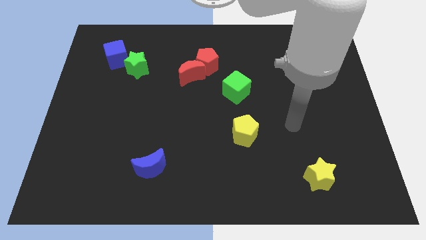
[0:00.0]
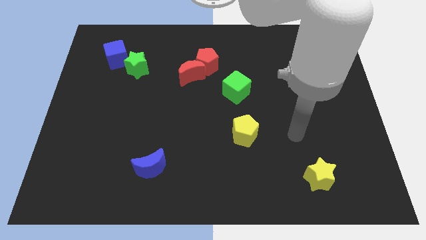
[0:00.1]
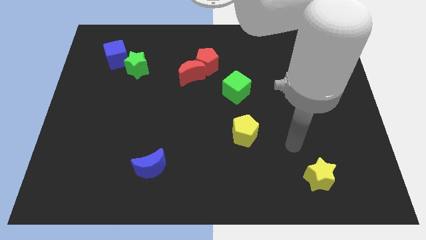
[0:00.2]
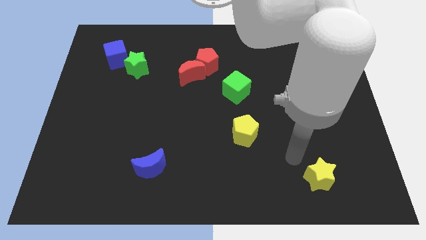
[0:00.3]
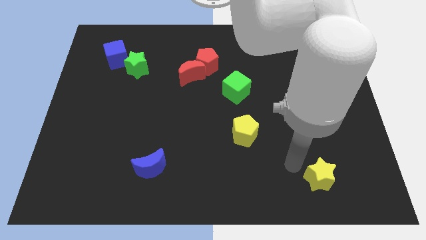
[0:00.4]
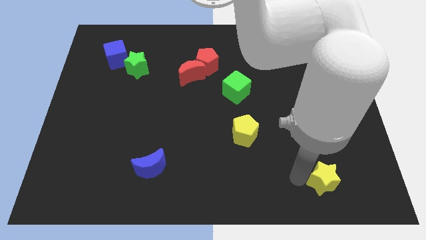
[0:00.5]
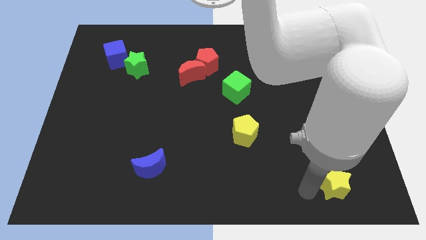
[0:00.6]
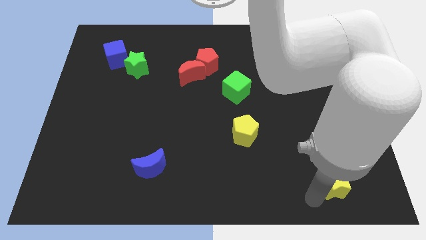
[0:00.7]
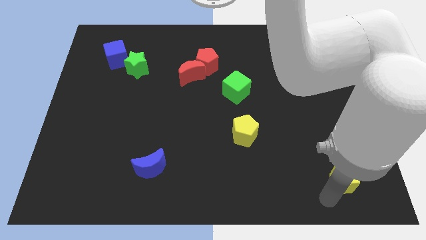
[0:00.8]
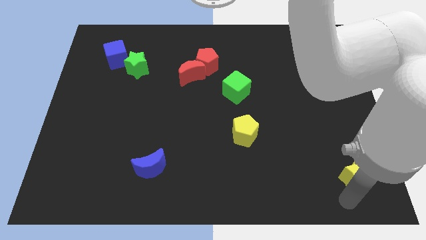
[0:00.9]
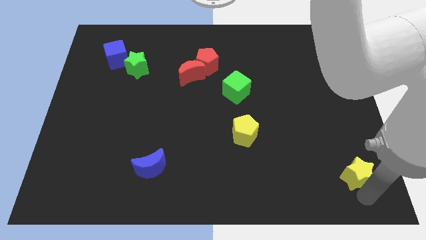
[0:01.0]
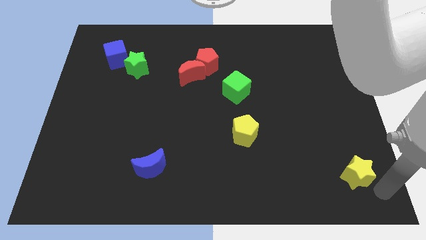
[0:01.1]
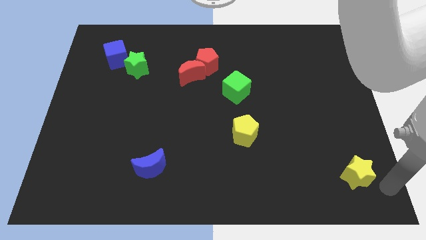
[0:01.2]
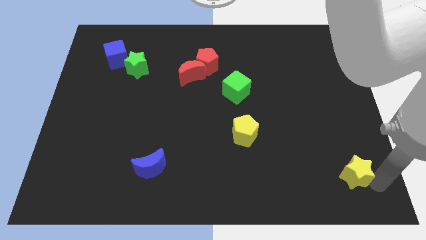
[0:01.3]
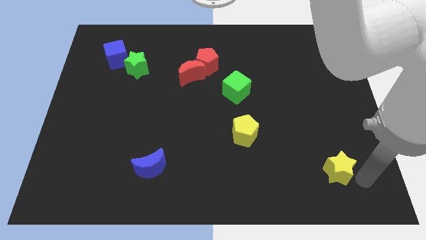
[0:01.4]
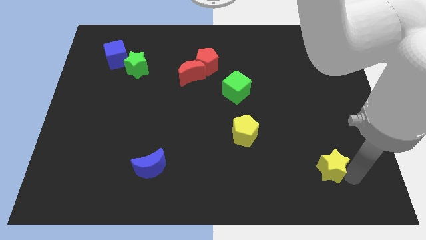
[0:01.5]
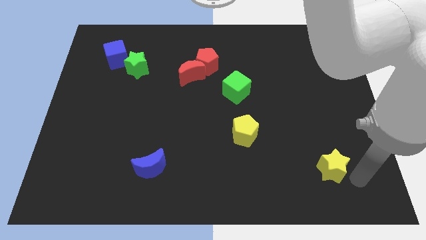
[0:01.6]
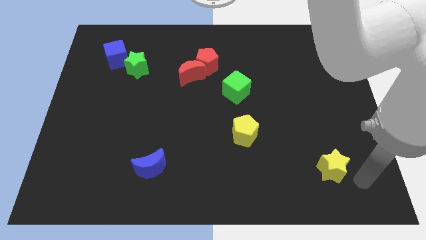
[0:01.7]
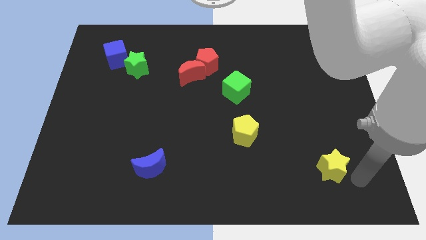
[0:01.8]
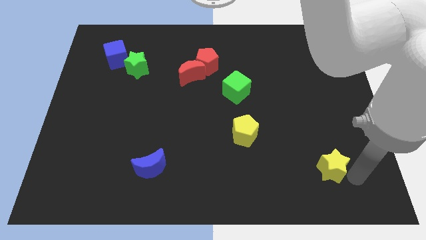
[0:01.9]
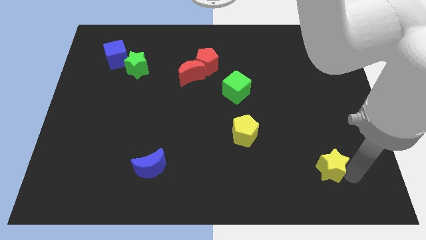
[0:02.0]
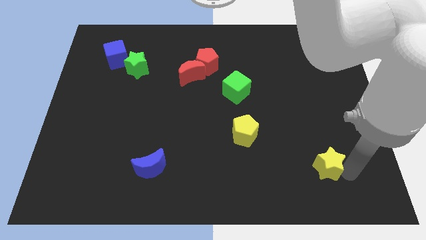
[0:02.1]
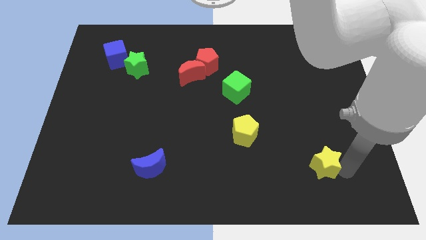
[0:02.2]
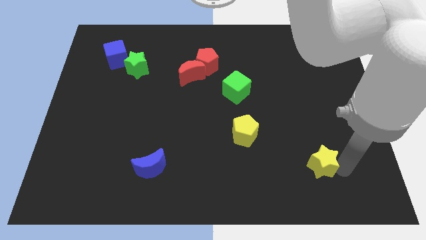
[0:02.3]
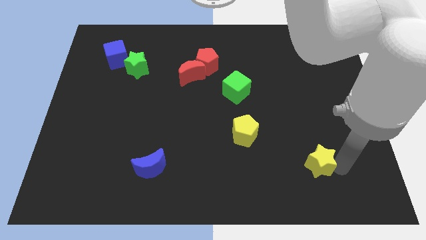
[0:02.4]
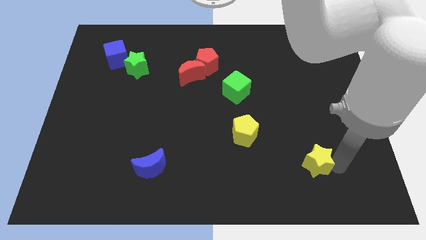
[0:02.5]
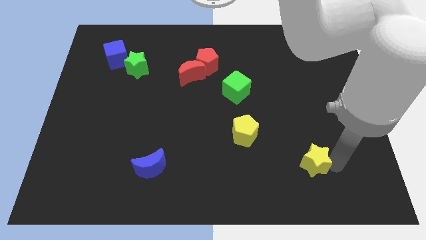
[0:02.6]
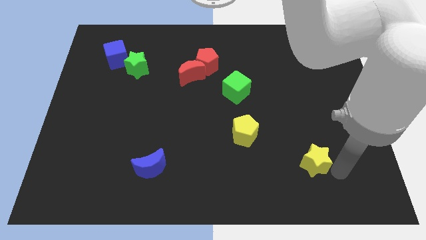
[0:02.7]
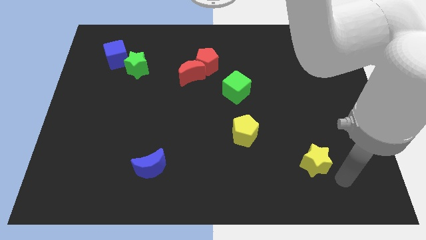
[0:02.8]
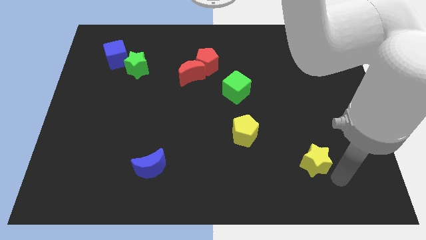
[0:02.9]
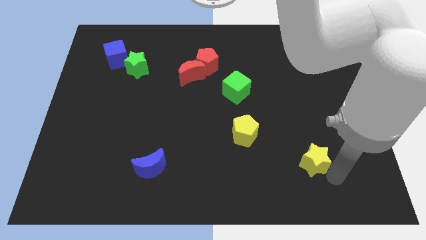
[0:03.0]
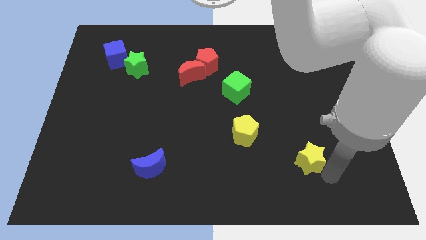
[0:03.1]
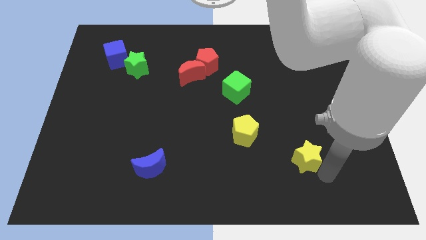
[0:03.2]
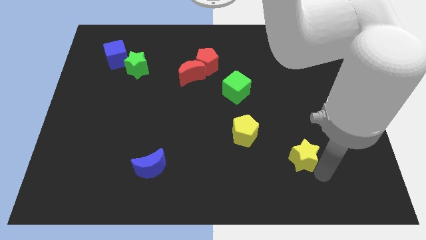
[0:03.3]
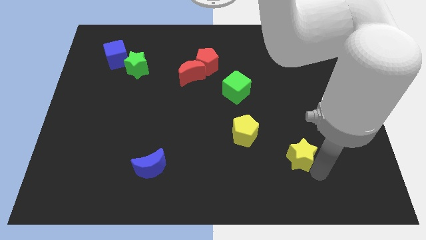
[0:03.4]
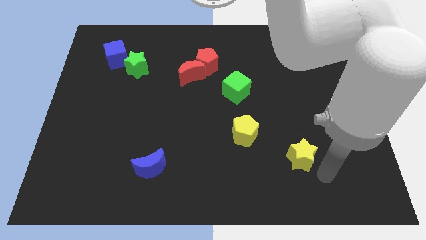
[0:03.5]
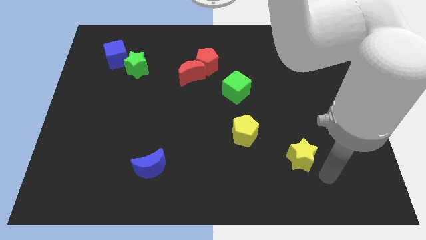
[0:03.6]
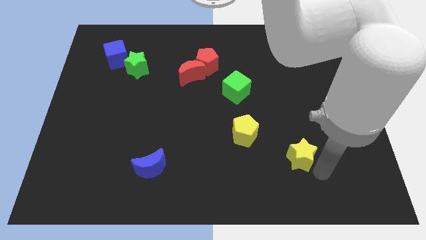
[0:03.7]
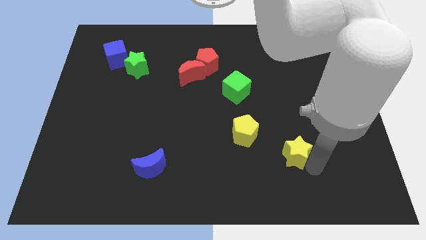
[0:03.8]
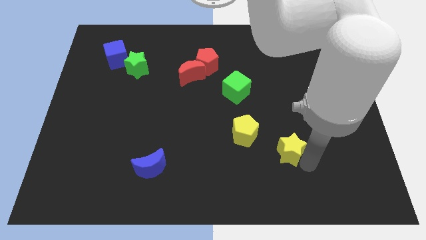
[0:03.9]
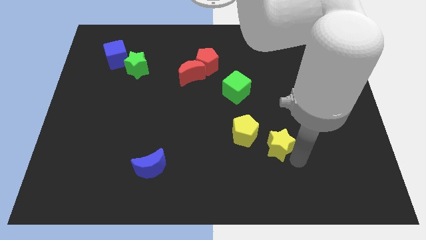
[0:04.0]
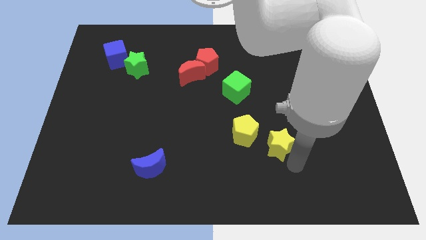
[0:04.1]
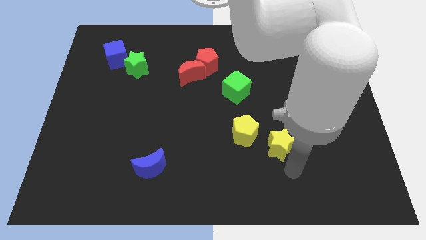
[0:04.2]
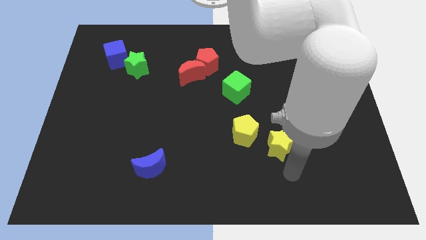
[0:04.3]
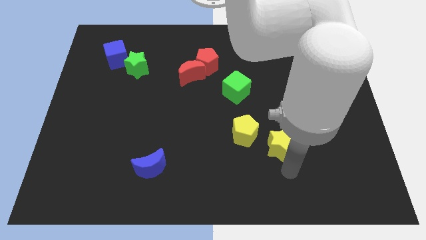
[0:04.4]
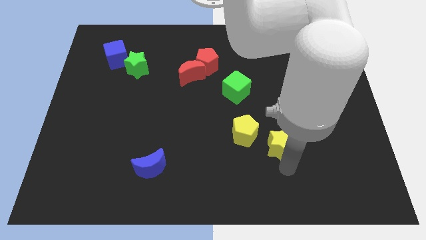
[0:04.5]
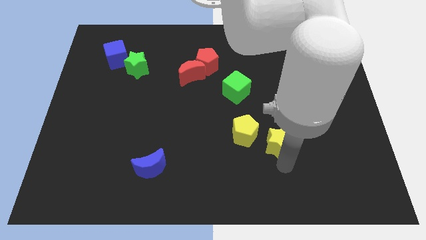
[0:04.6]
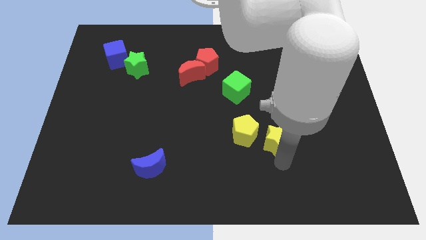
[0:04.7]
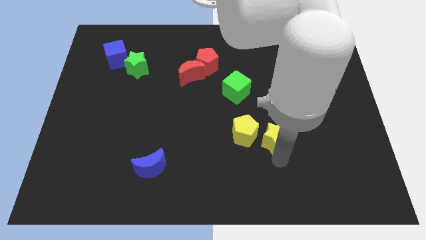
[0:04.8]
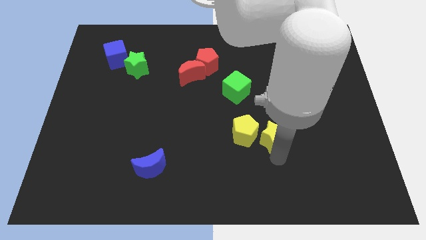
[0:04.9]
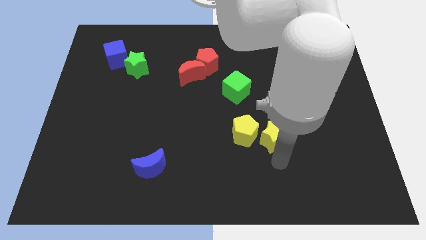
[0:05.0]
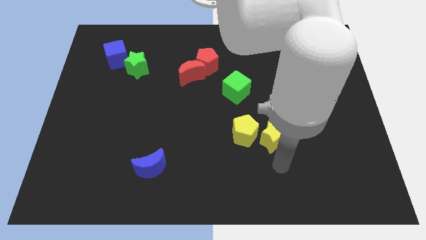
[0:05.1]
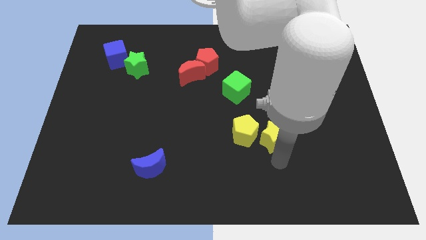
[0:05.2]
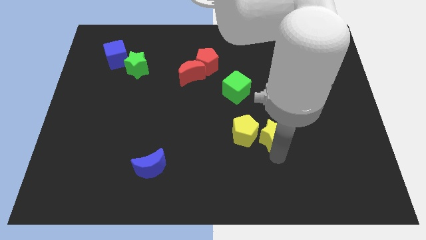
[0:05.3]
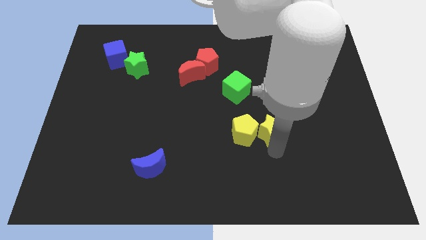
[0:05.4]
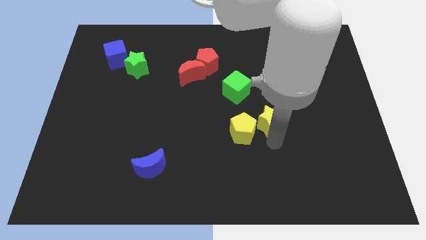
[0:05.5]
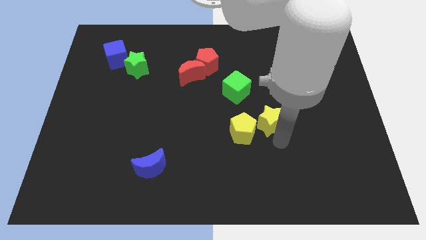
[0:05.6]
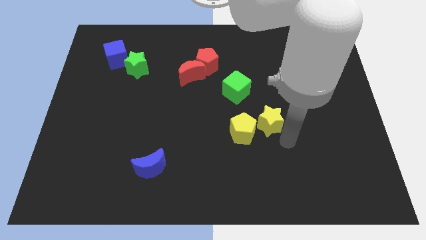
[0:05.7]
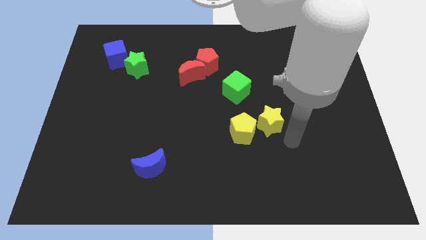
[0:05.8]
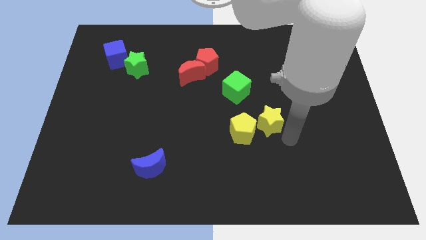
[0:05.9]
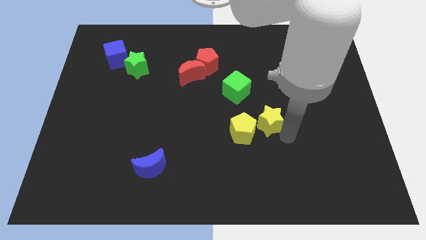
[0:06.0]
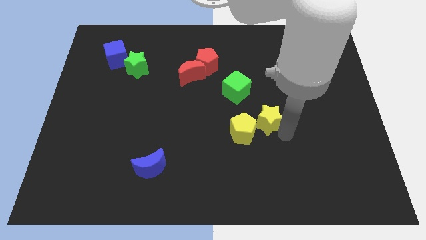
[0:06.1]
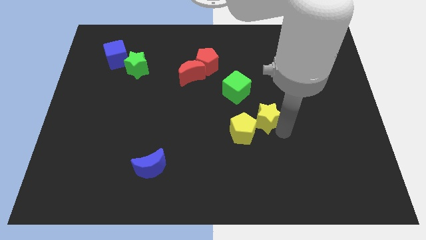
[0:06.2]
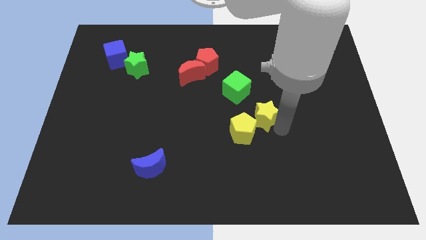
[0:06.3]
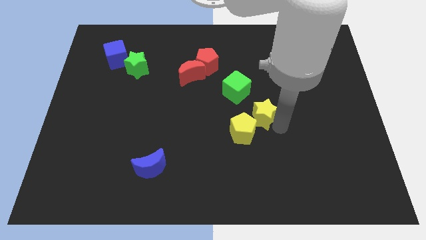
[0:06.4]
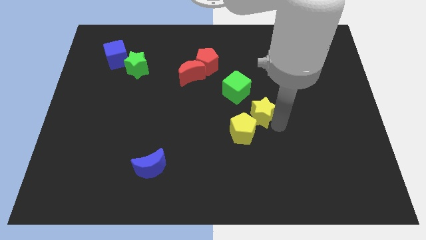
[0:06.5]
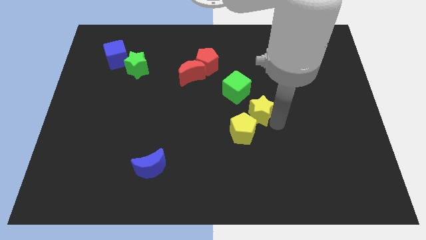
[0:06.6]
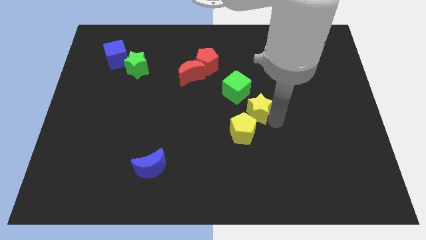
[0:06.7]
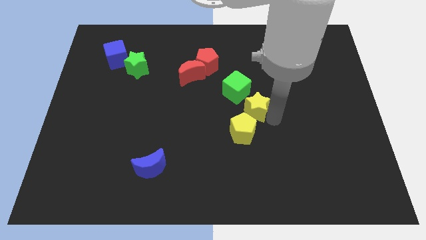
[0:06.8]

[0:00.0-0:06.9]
slide the yellow star upwards and left diagonally

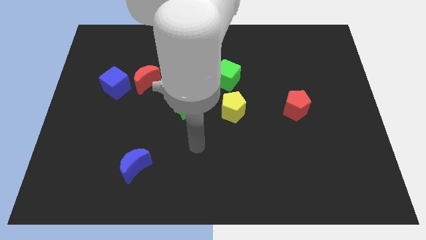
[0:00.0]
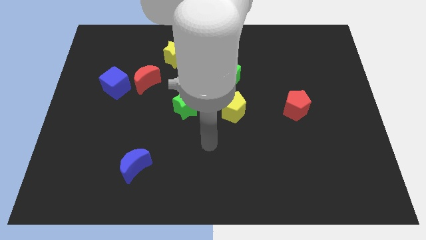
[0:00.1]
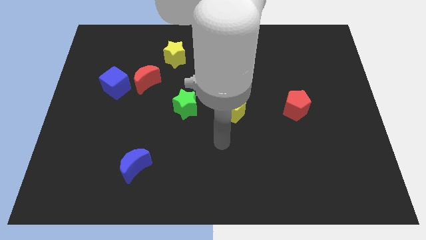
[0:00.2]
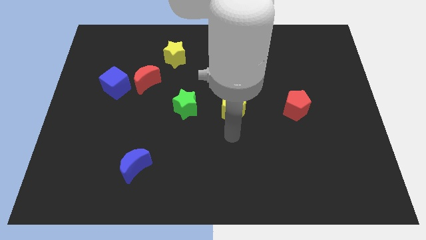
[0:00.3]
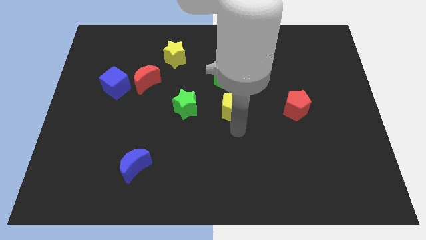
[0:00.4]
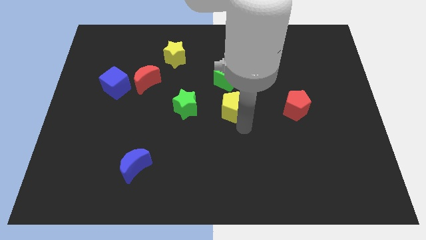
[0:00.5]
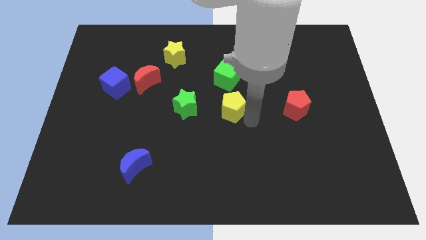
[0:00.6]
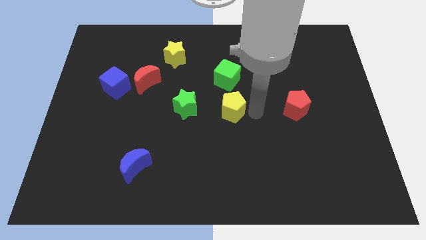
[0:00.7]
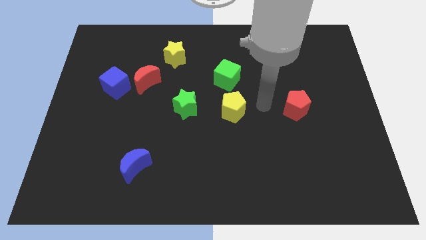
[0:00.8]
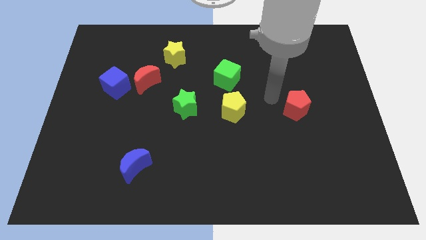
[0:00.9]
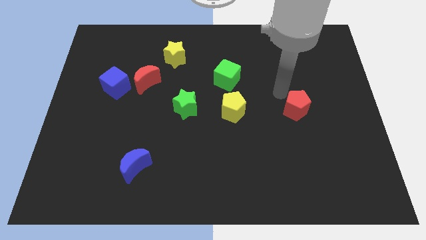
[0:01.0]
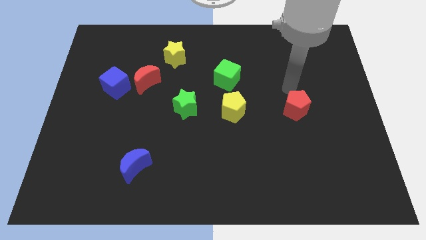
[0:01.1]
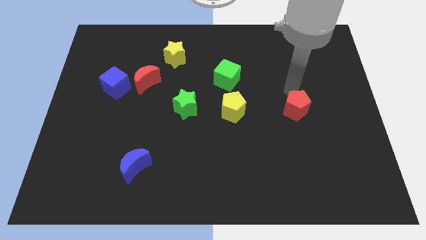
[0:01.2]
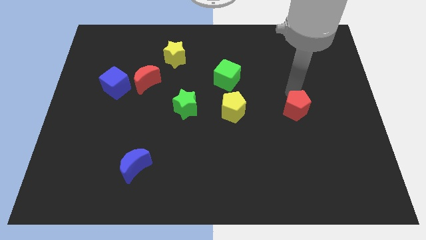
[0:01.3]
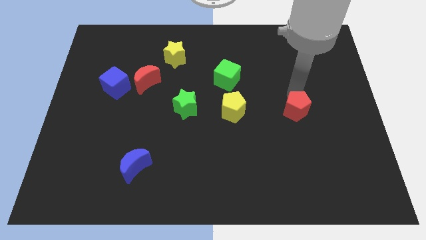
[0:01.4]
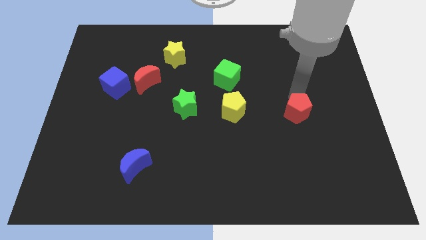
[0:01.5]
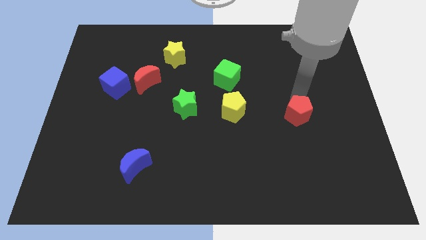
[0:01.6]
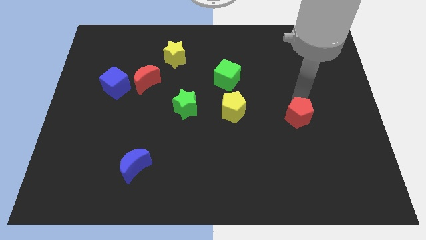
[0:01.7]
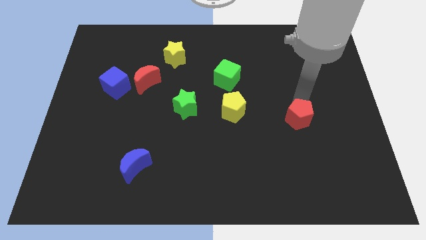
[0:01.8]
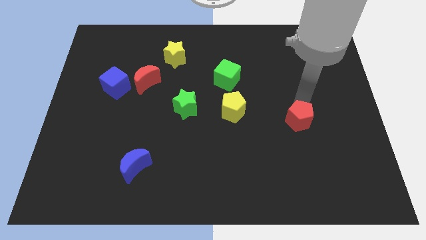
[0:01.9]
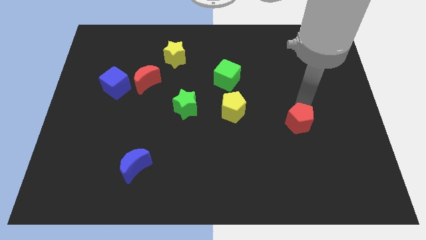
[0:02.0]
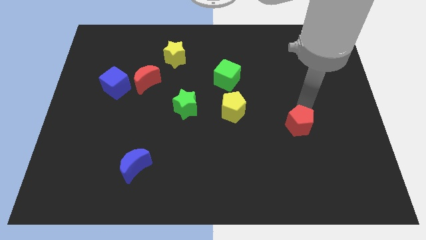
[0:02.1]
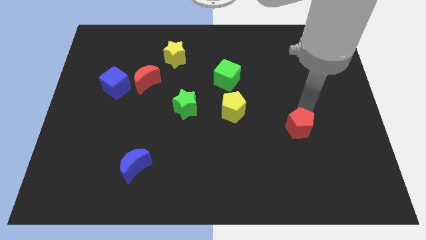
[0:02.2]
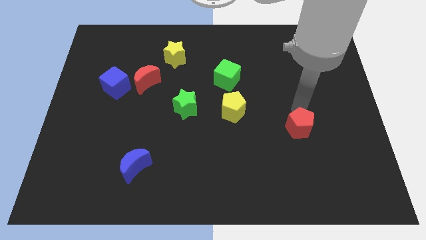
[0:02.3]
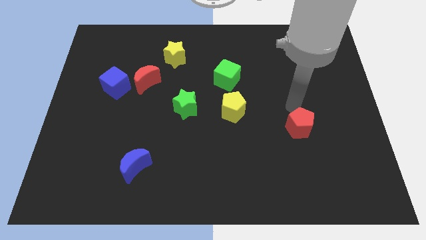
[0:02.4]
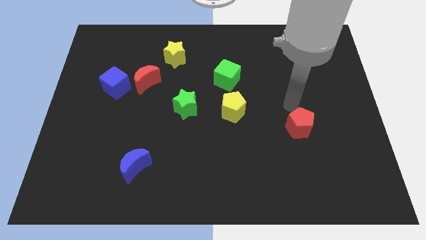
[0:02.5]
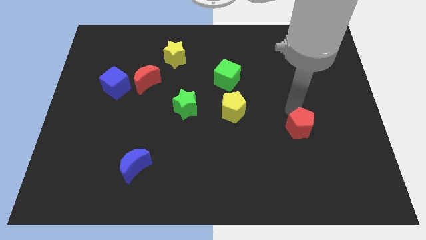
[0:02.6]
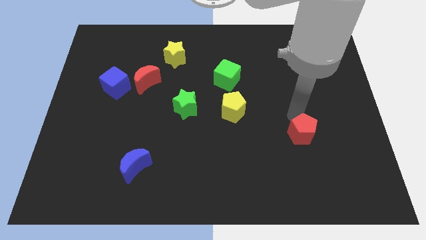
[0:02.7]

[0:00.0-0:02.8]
slightly push the red pentagon downwards
